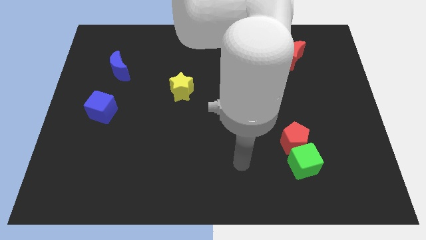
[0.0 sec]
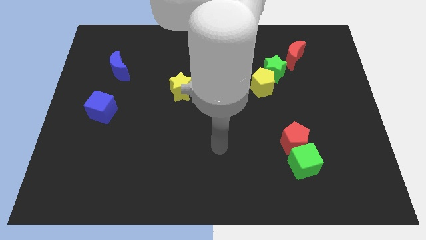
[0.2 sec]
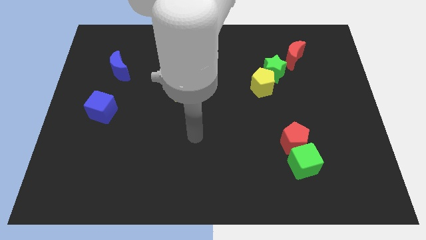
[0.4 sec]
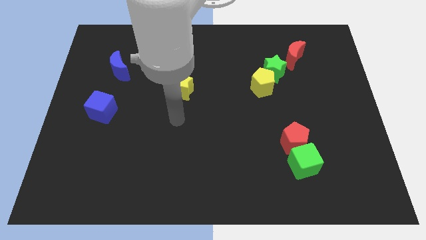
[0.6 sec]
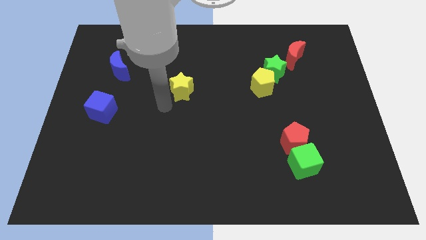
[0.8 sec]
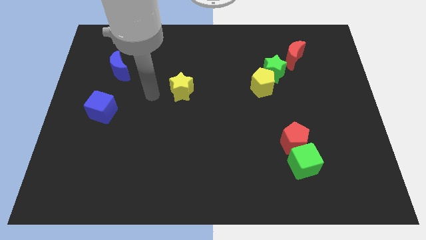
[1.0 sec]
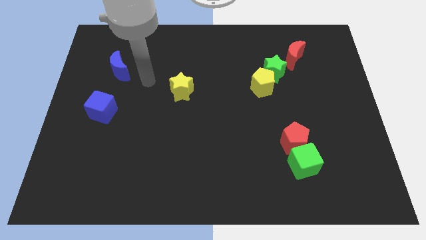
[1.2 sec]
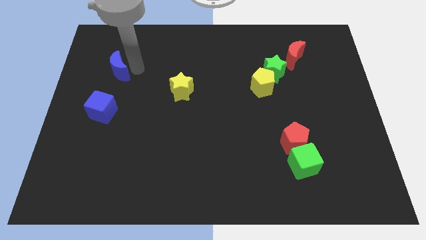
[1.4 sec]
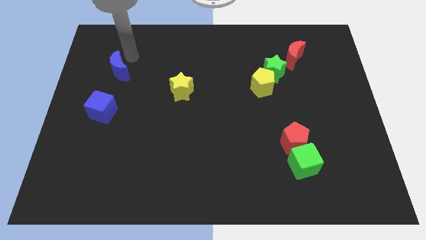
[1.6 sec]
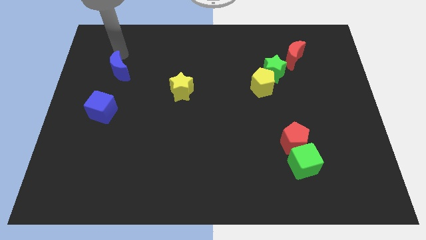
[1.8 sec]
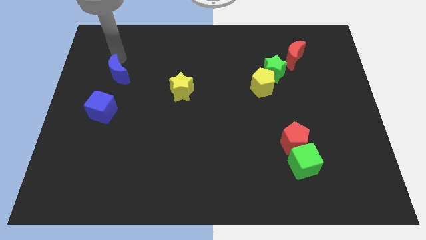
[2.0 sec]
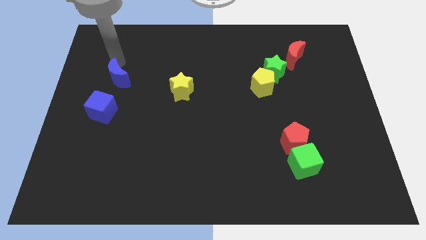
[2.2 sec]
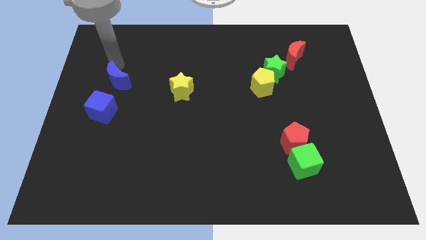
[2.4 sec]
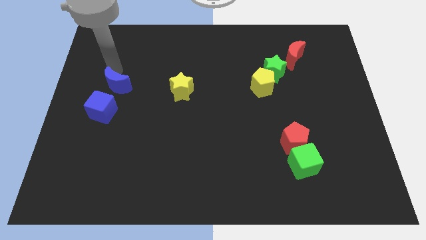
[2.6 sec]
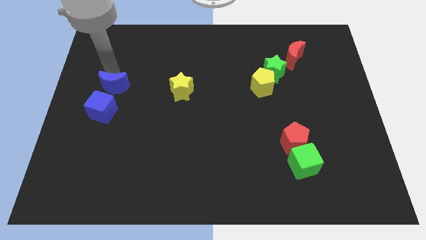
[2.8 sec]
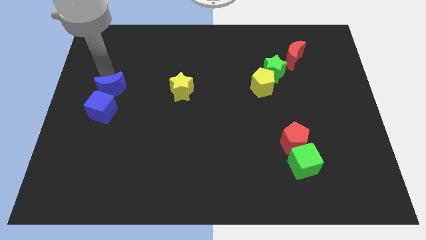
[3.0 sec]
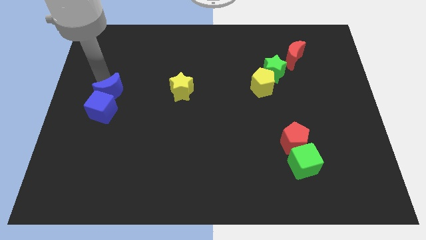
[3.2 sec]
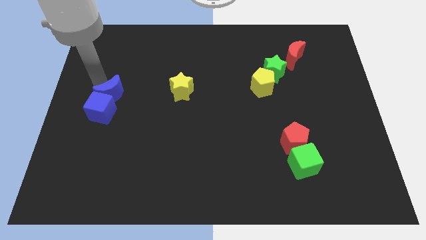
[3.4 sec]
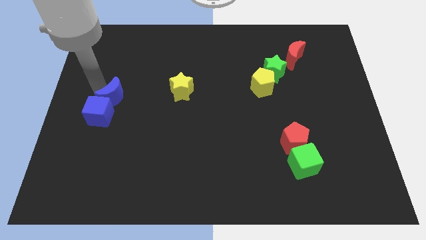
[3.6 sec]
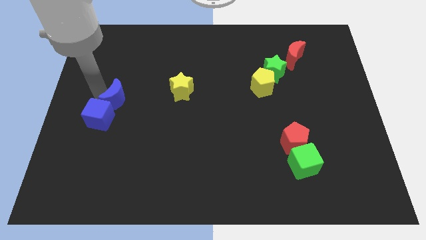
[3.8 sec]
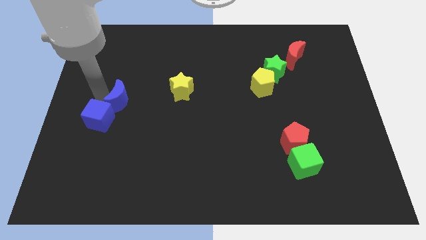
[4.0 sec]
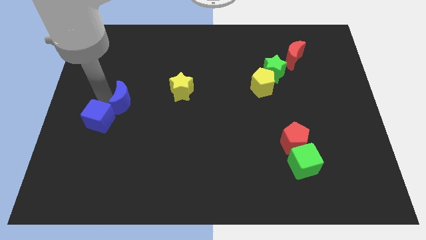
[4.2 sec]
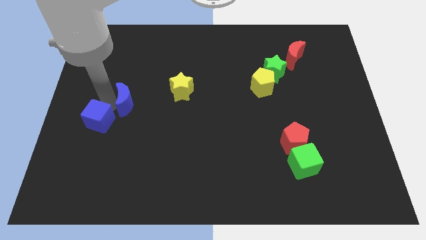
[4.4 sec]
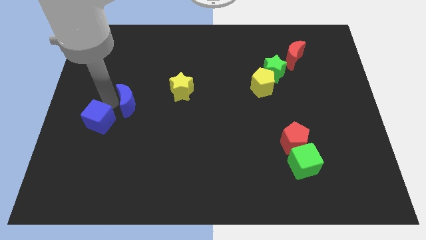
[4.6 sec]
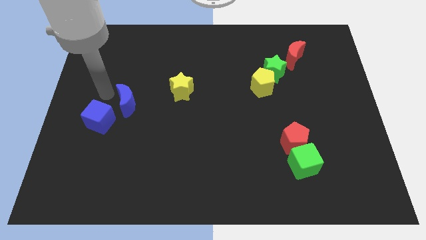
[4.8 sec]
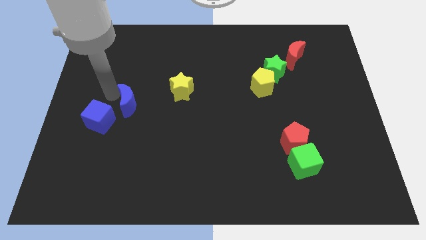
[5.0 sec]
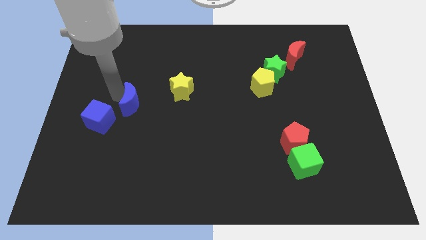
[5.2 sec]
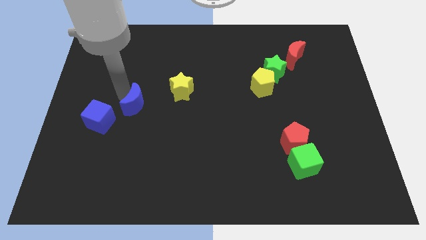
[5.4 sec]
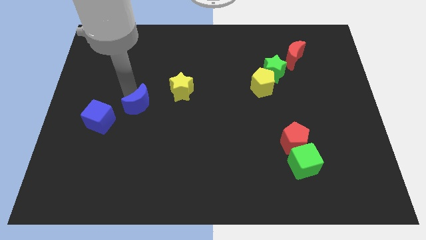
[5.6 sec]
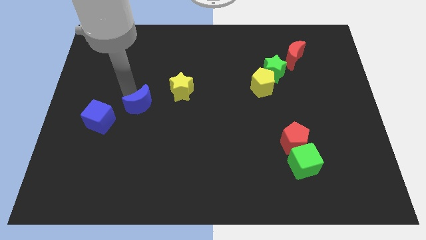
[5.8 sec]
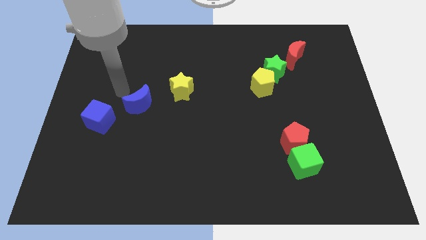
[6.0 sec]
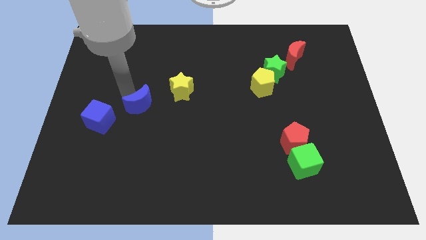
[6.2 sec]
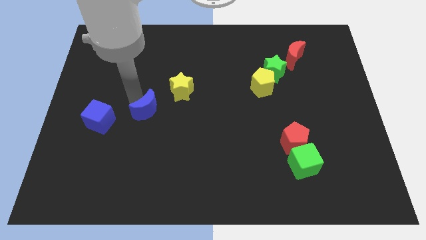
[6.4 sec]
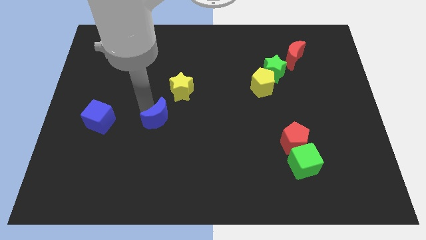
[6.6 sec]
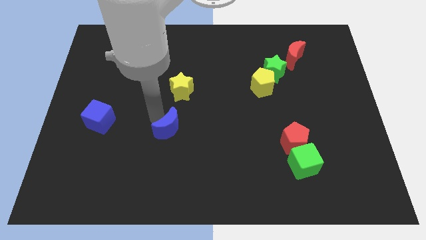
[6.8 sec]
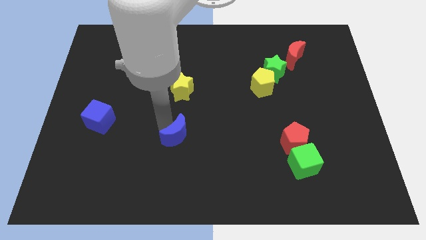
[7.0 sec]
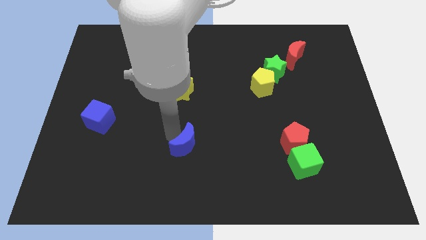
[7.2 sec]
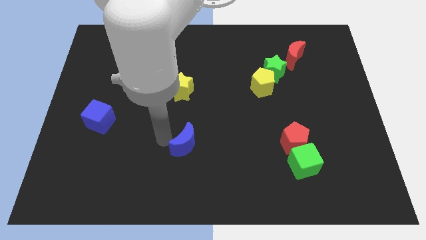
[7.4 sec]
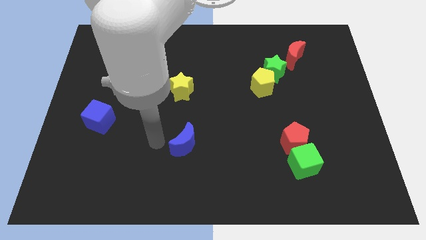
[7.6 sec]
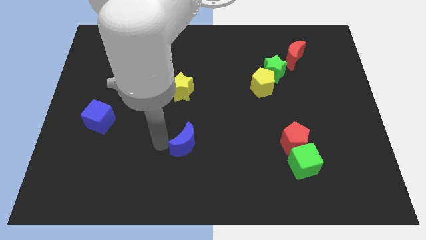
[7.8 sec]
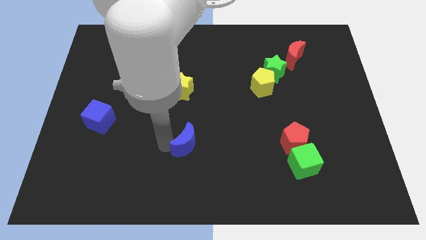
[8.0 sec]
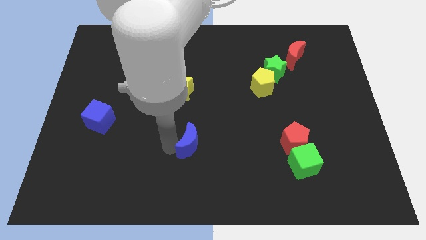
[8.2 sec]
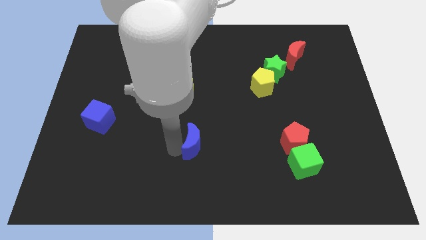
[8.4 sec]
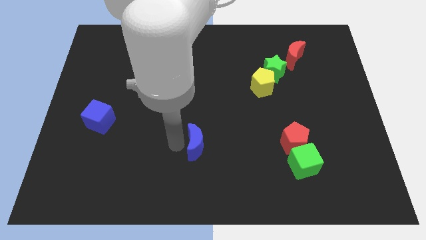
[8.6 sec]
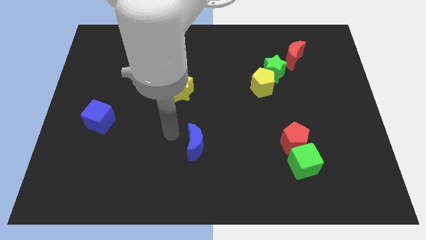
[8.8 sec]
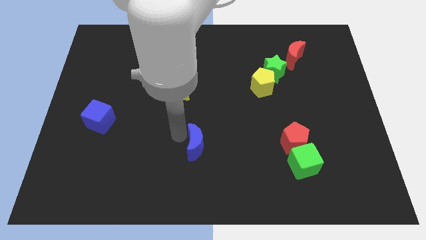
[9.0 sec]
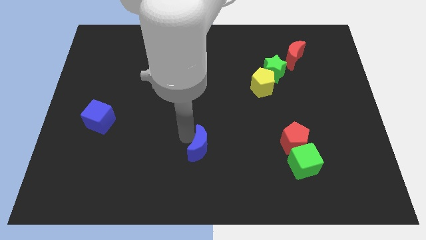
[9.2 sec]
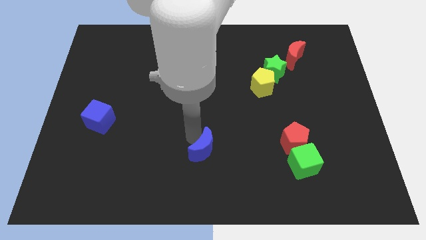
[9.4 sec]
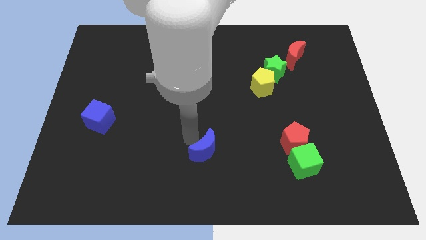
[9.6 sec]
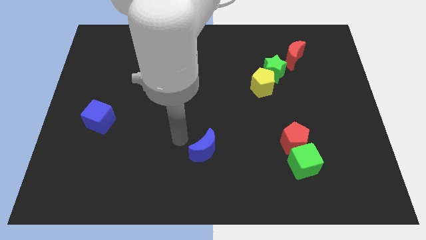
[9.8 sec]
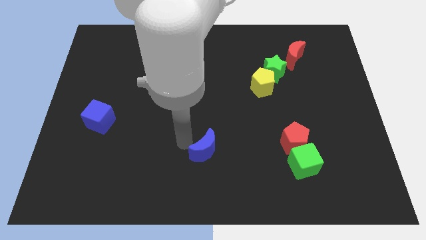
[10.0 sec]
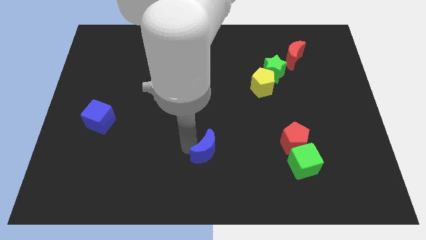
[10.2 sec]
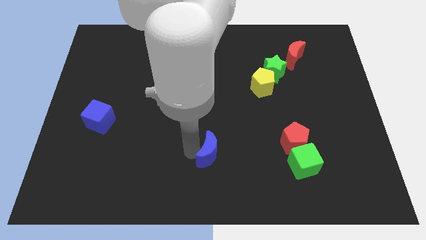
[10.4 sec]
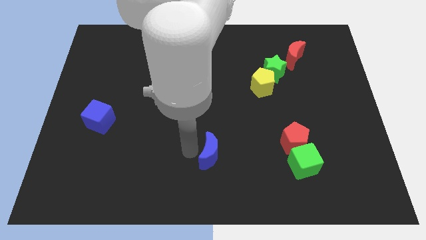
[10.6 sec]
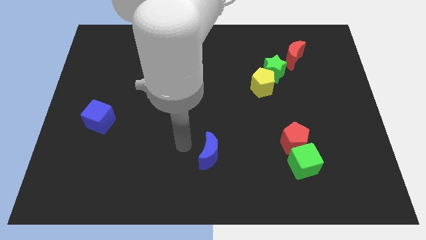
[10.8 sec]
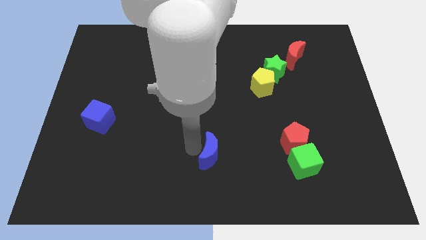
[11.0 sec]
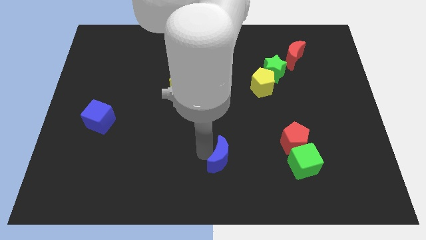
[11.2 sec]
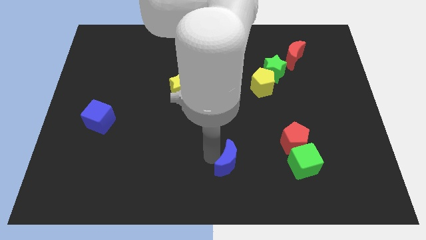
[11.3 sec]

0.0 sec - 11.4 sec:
move the blue moon left of the green cube

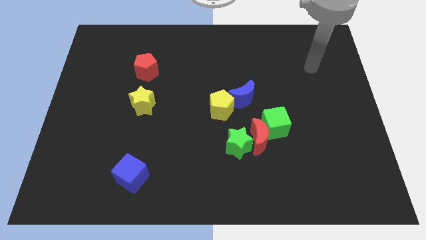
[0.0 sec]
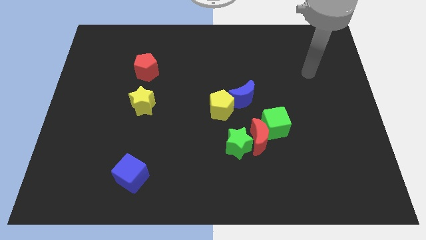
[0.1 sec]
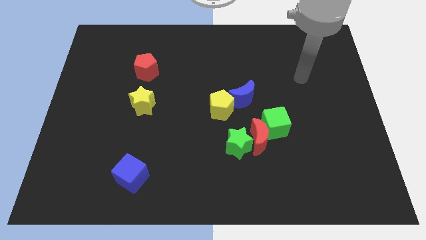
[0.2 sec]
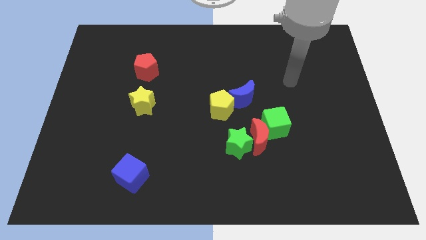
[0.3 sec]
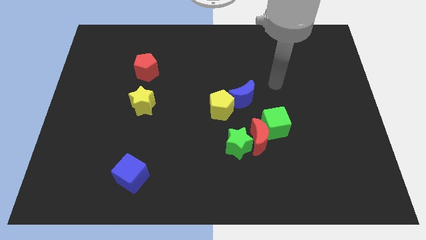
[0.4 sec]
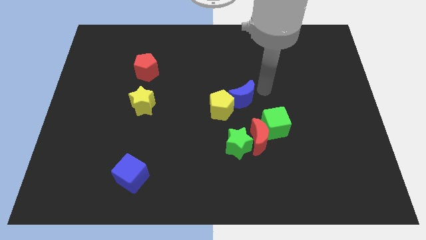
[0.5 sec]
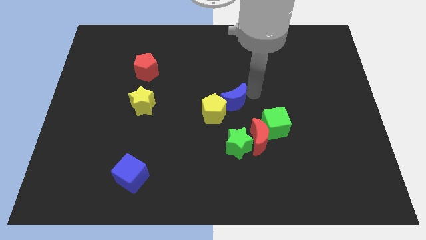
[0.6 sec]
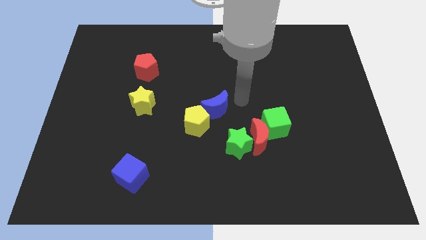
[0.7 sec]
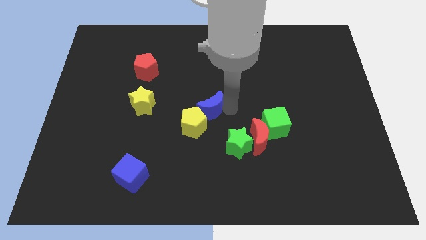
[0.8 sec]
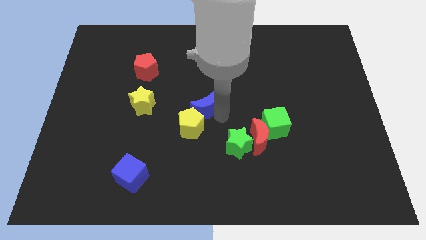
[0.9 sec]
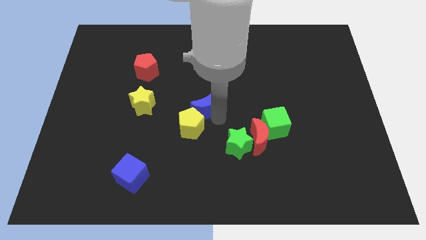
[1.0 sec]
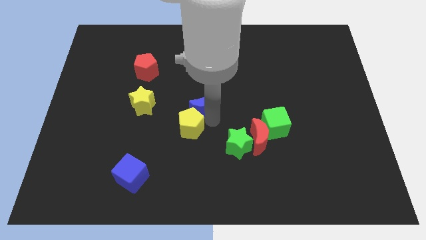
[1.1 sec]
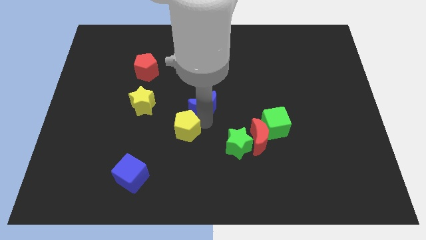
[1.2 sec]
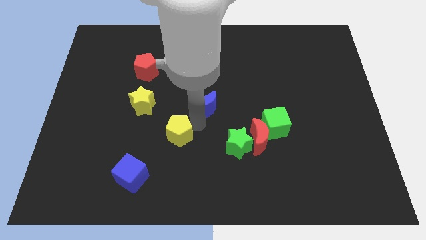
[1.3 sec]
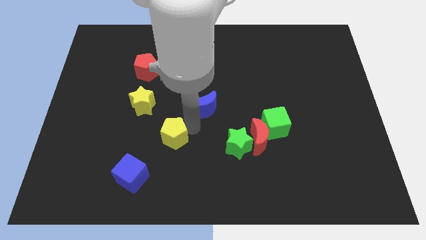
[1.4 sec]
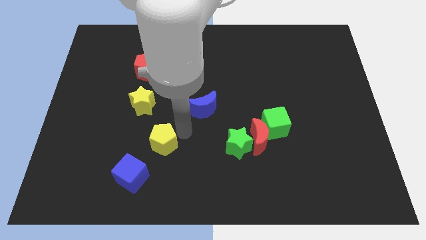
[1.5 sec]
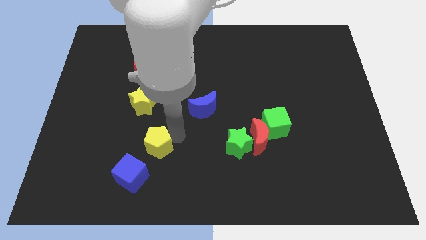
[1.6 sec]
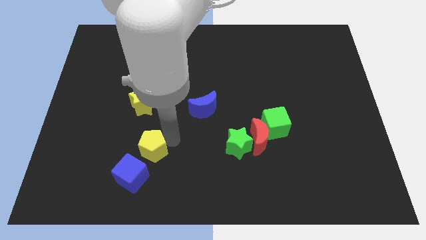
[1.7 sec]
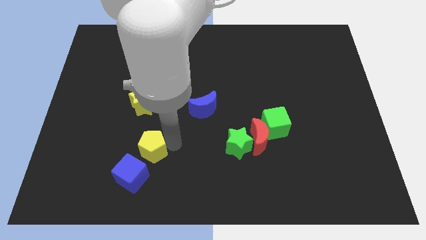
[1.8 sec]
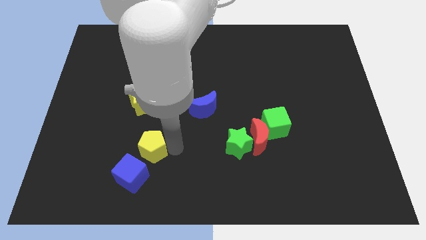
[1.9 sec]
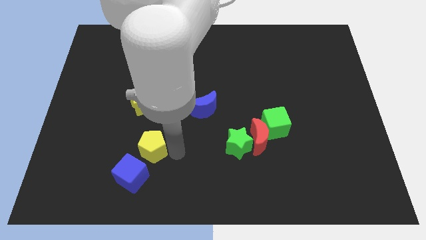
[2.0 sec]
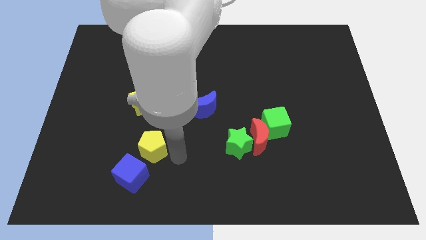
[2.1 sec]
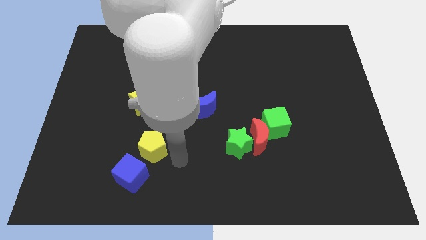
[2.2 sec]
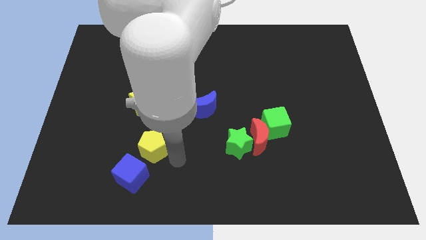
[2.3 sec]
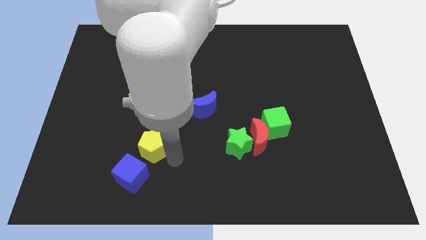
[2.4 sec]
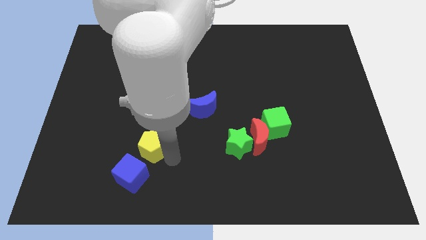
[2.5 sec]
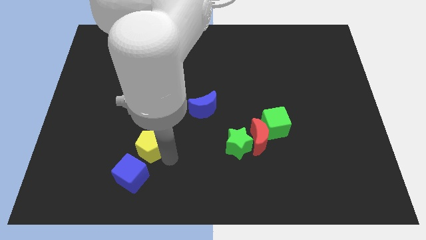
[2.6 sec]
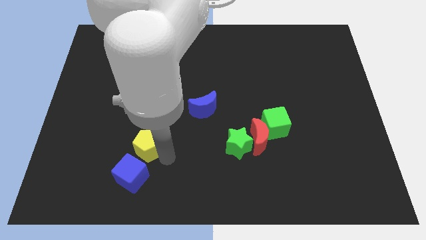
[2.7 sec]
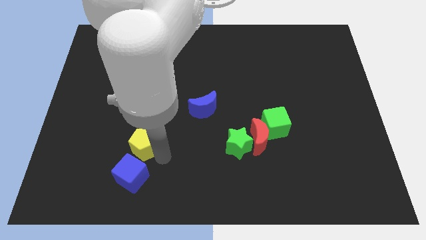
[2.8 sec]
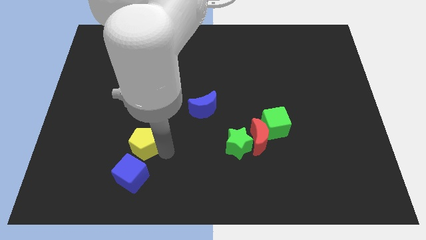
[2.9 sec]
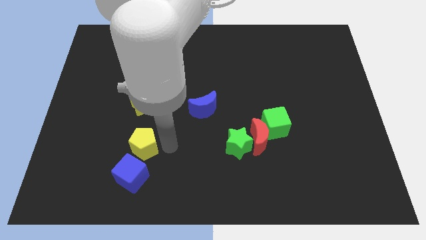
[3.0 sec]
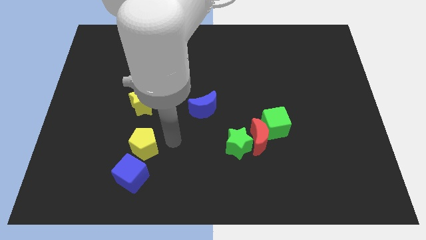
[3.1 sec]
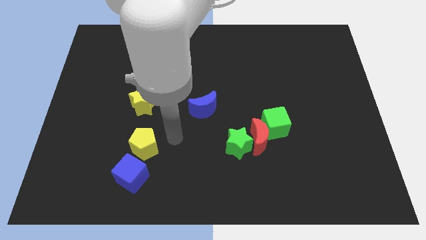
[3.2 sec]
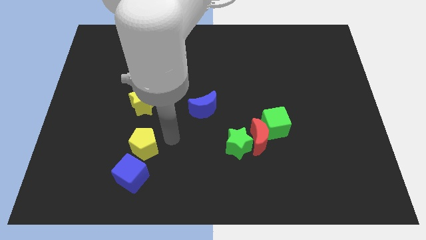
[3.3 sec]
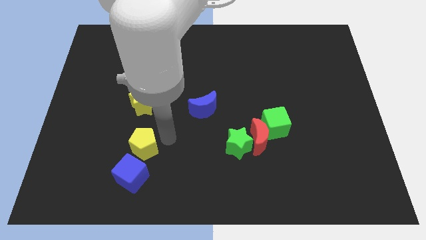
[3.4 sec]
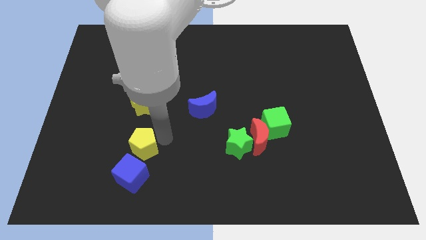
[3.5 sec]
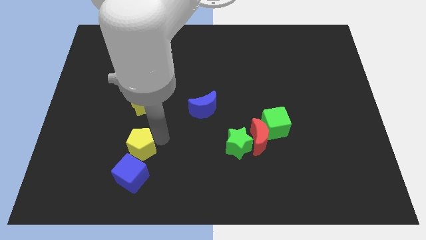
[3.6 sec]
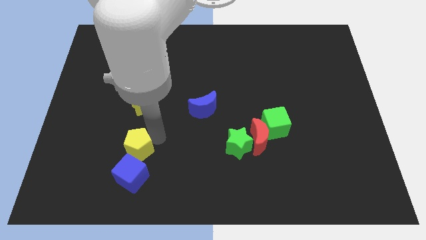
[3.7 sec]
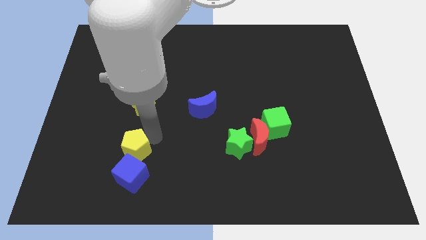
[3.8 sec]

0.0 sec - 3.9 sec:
move the yellow pentagon diagonally up and to the left of the blue cube
